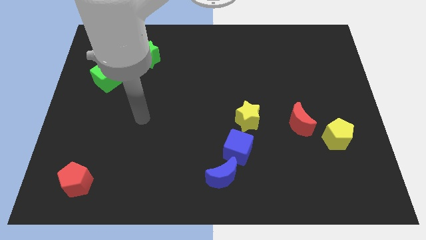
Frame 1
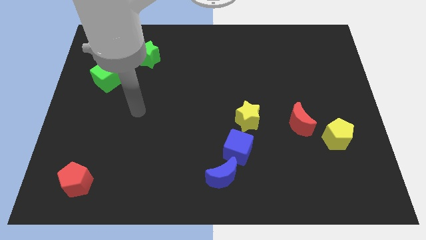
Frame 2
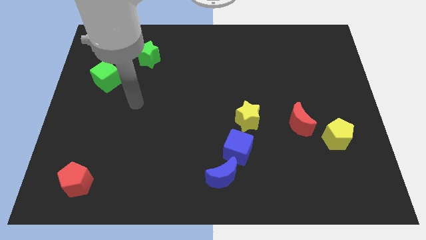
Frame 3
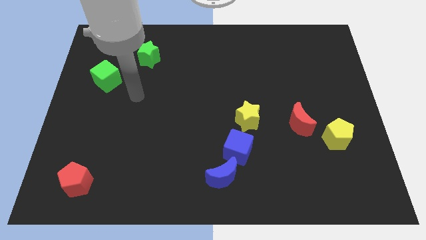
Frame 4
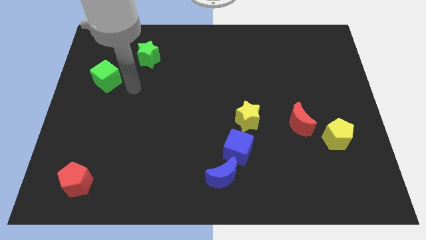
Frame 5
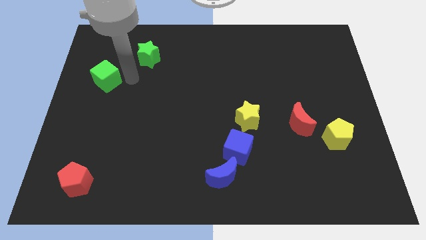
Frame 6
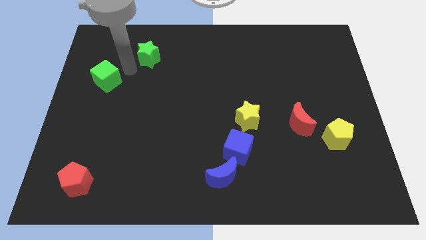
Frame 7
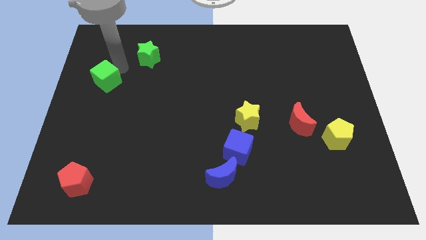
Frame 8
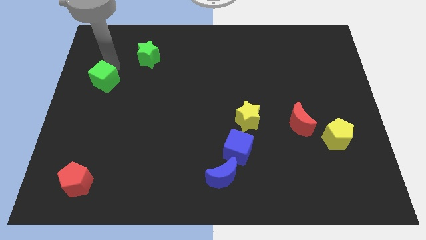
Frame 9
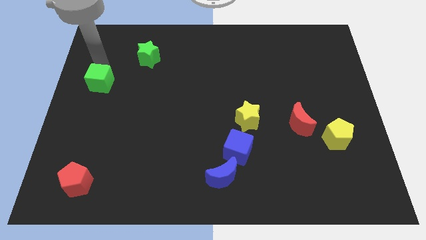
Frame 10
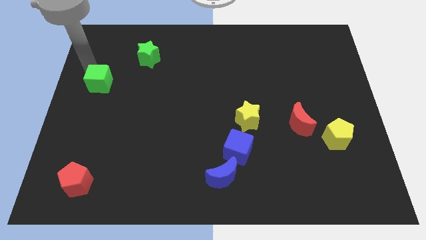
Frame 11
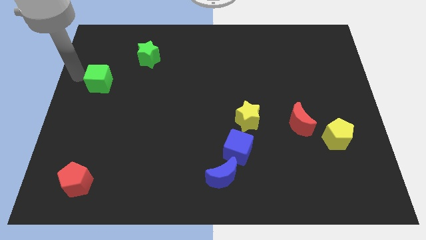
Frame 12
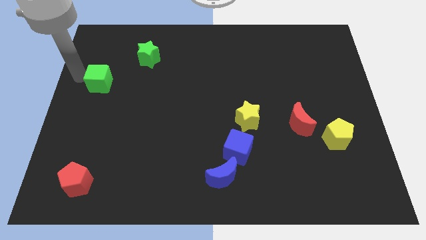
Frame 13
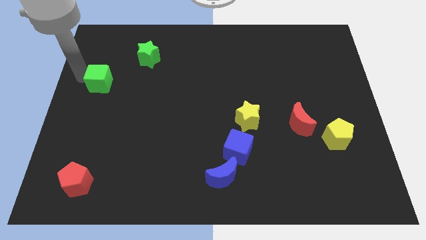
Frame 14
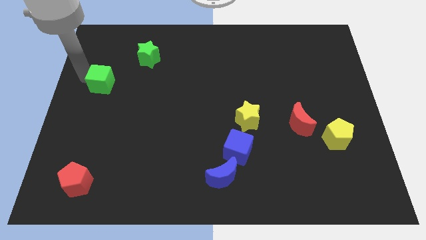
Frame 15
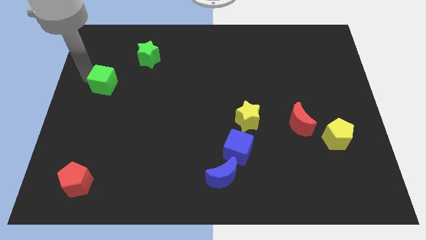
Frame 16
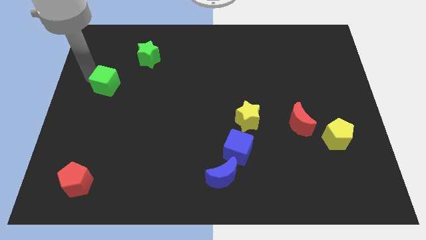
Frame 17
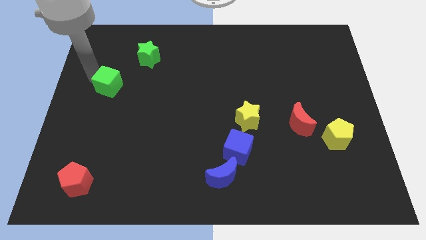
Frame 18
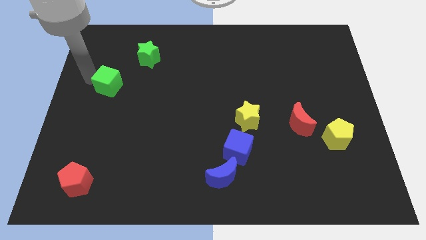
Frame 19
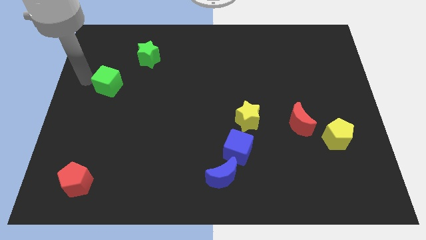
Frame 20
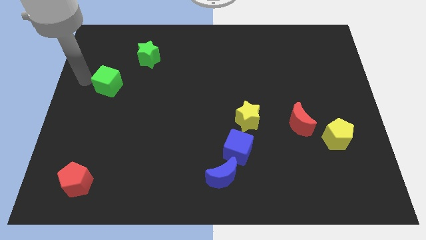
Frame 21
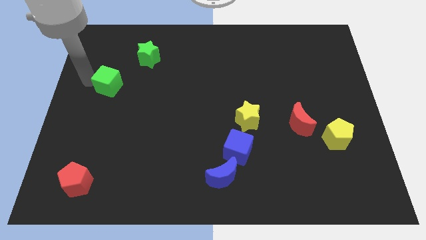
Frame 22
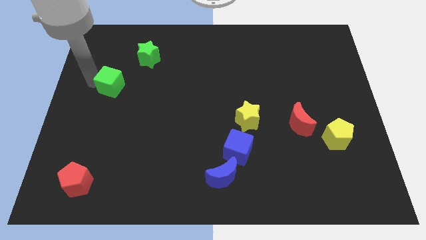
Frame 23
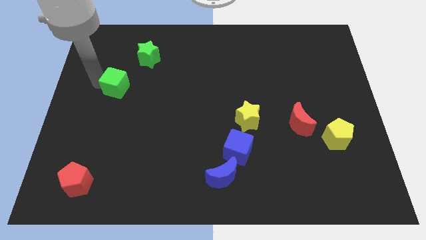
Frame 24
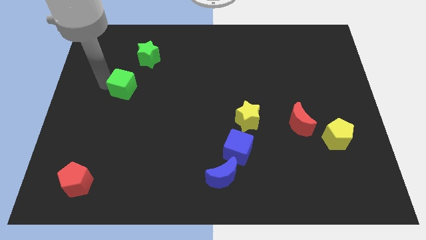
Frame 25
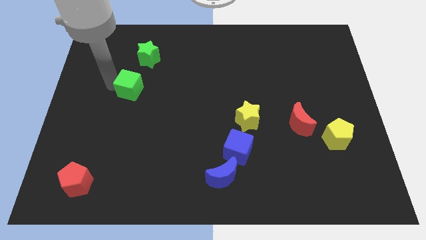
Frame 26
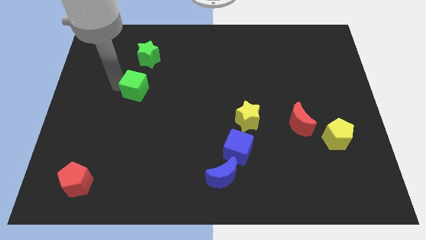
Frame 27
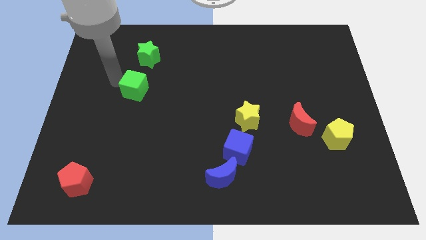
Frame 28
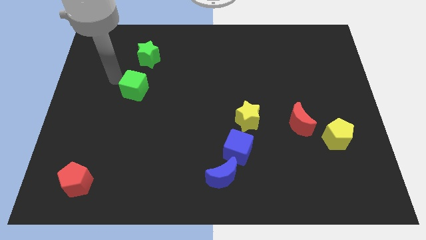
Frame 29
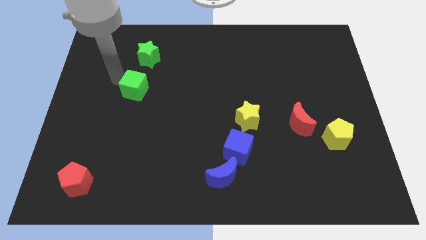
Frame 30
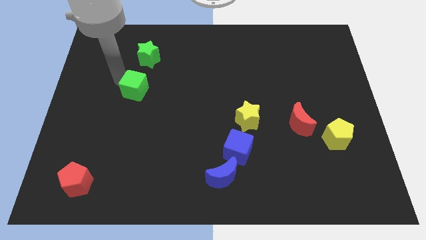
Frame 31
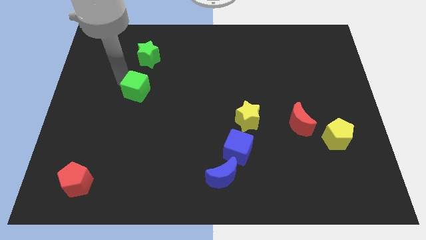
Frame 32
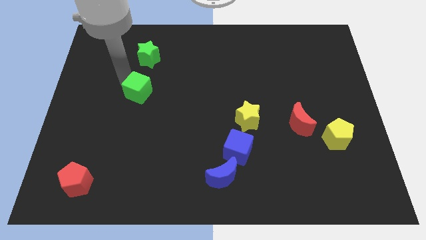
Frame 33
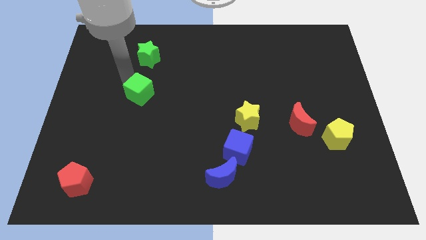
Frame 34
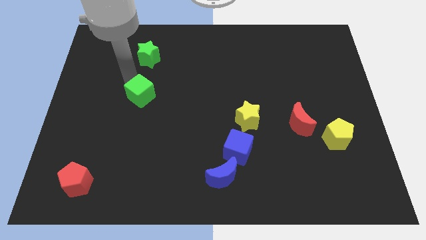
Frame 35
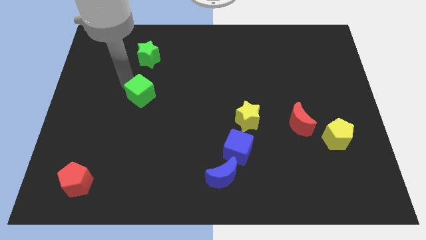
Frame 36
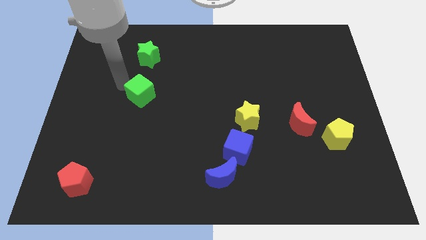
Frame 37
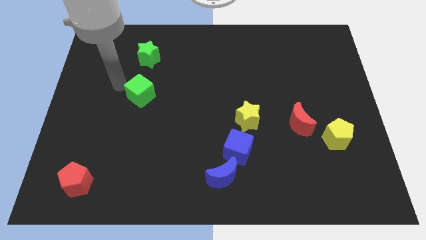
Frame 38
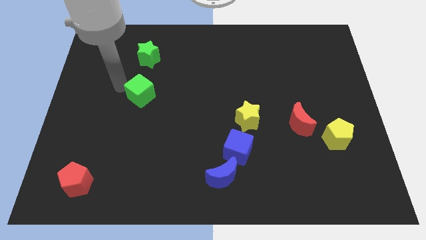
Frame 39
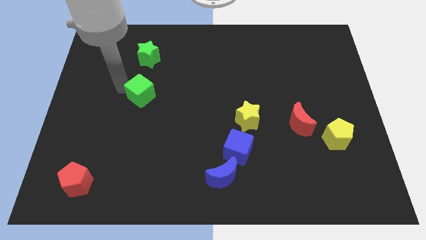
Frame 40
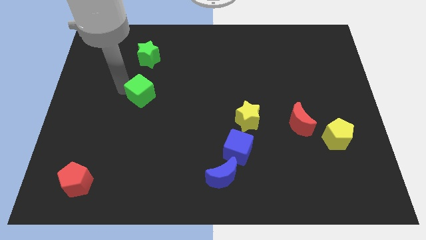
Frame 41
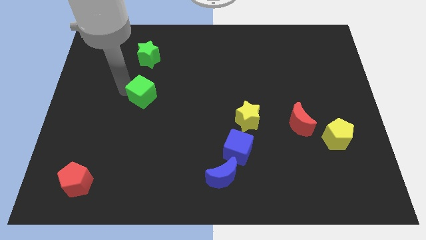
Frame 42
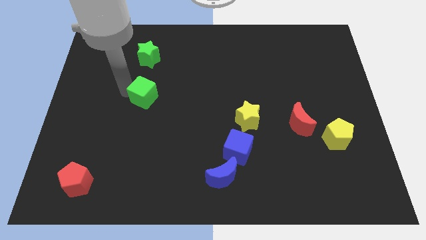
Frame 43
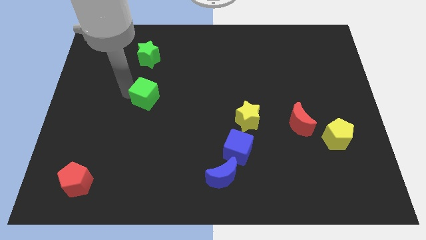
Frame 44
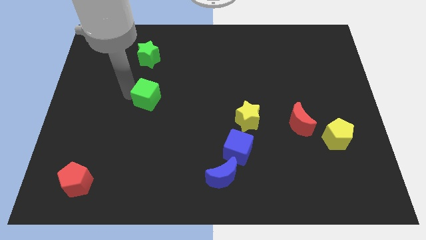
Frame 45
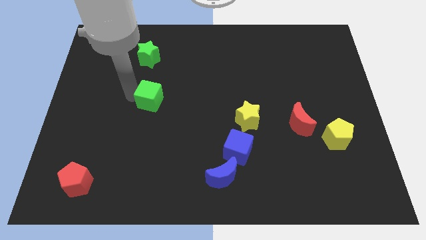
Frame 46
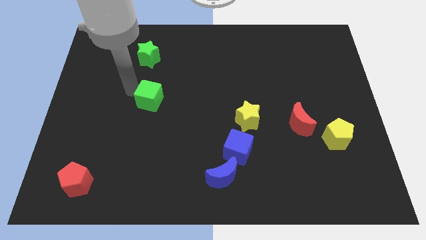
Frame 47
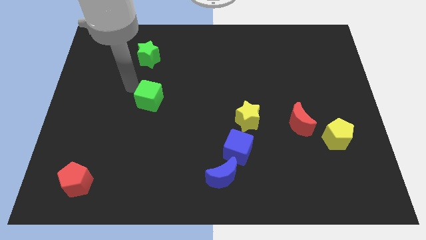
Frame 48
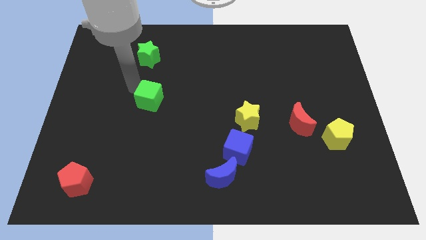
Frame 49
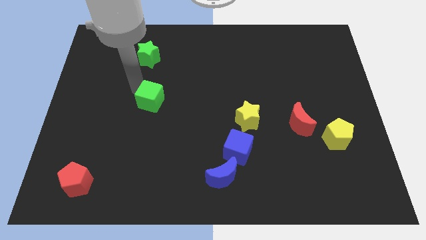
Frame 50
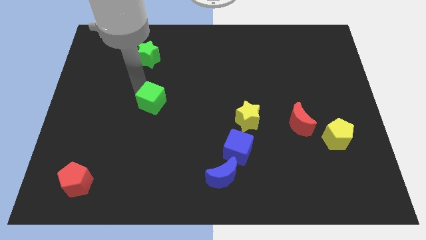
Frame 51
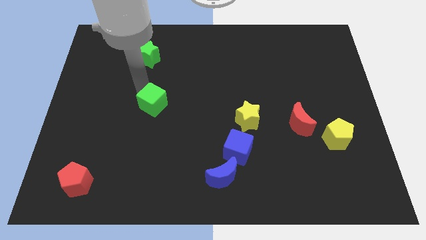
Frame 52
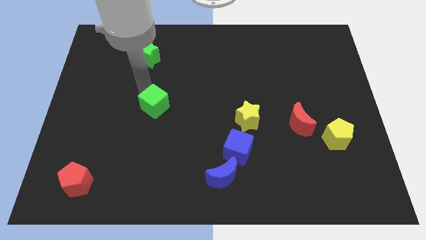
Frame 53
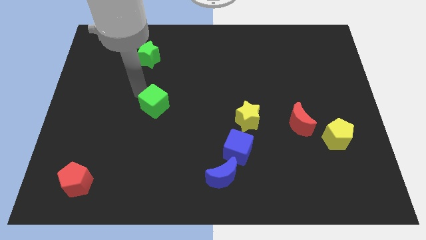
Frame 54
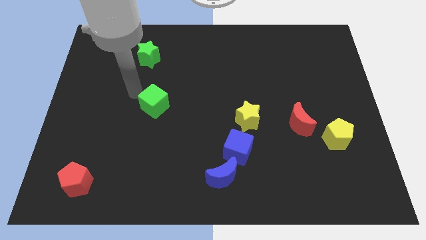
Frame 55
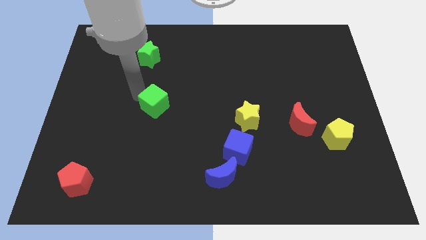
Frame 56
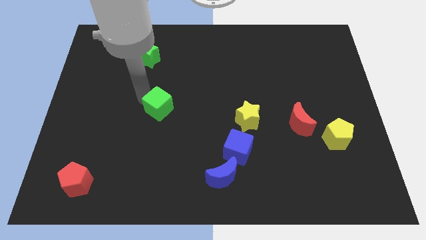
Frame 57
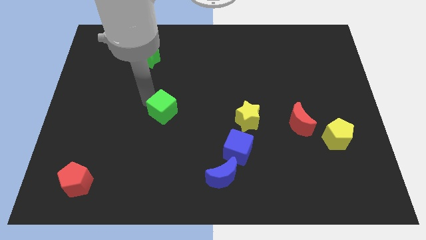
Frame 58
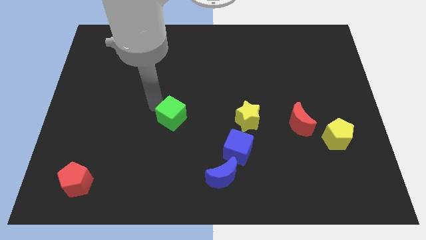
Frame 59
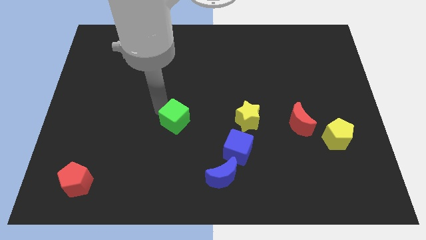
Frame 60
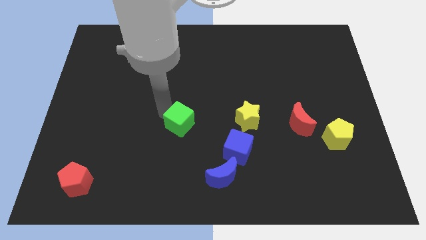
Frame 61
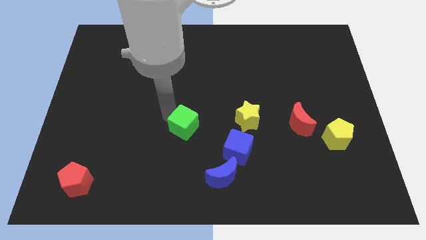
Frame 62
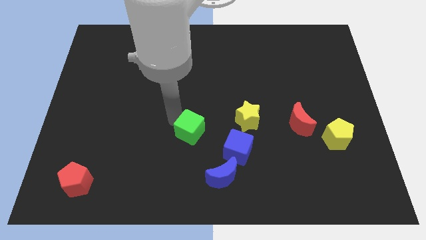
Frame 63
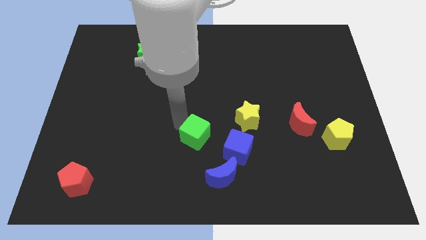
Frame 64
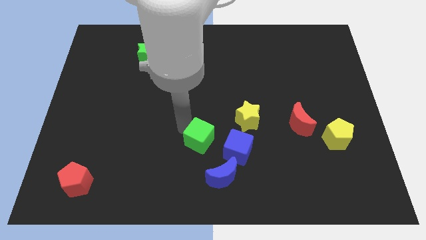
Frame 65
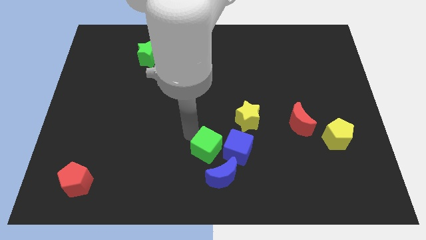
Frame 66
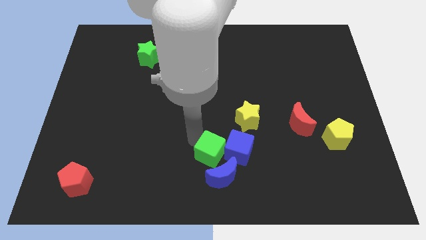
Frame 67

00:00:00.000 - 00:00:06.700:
push the green cube towards the blue cube

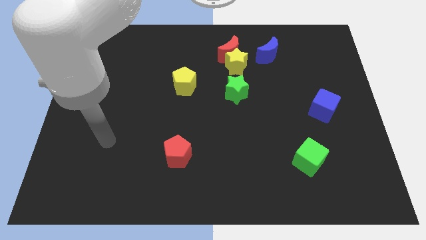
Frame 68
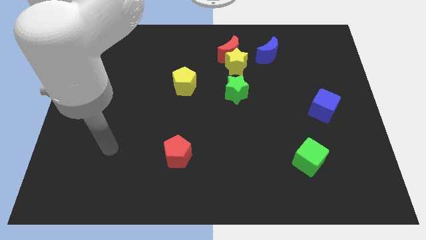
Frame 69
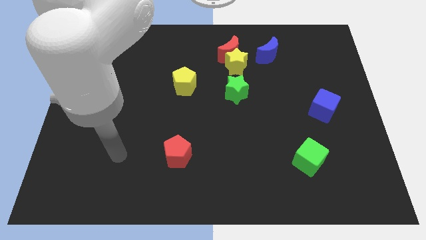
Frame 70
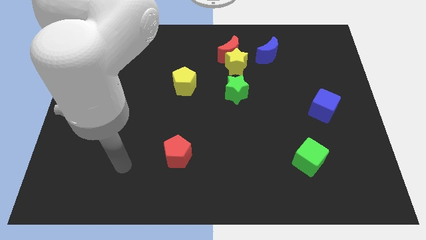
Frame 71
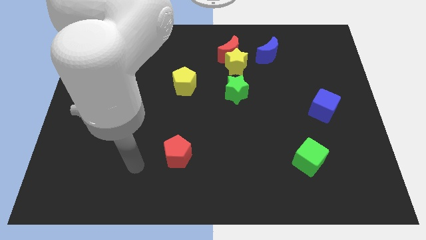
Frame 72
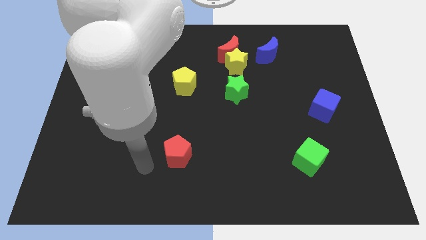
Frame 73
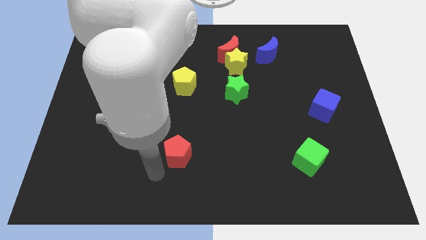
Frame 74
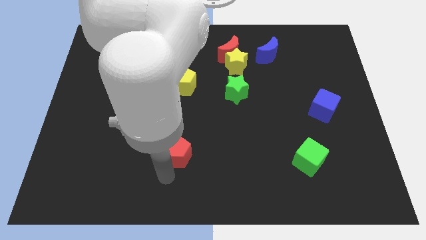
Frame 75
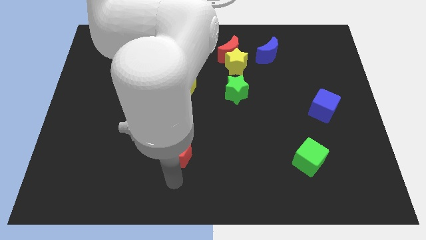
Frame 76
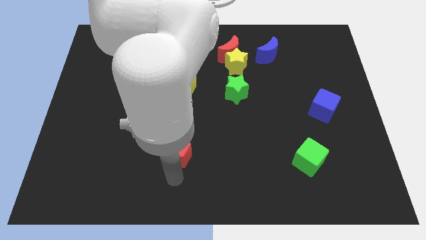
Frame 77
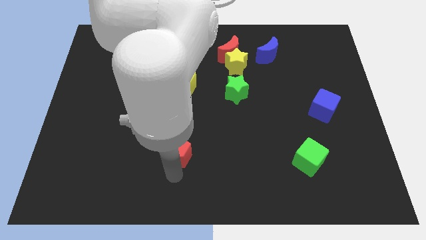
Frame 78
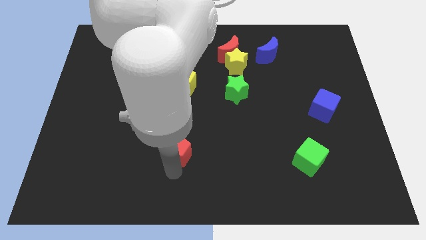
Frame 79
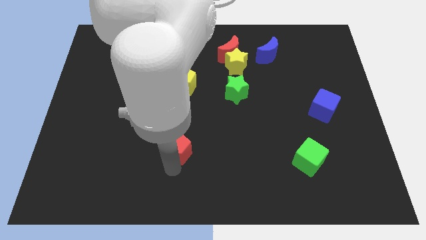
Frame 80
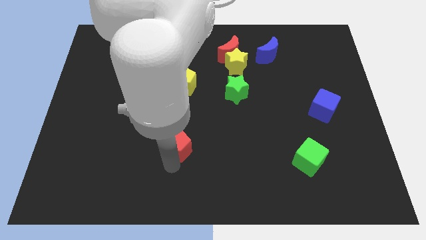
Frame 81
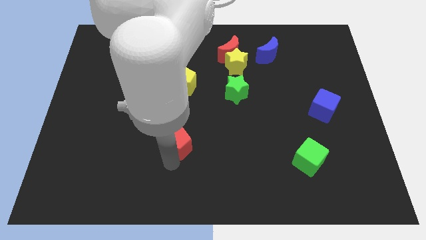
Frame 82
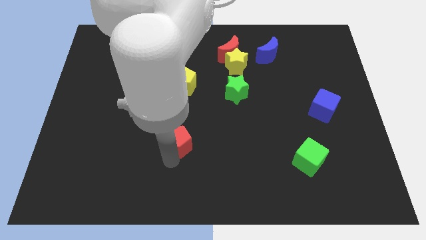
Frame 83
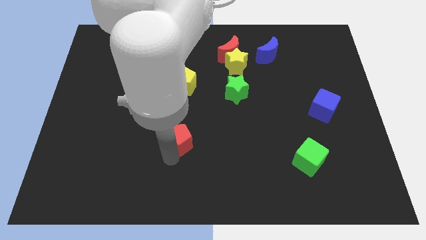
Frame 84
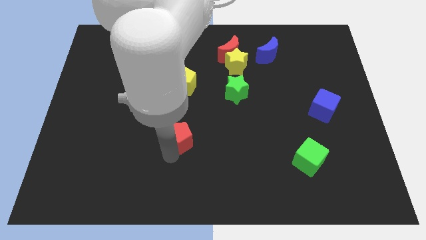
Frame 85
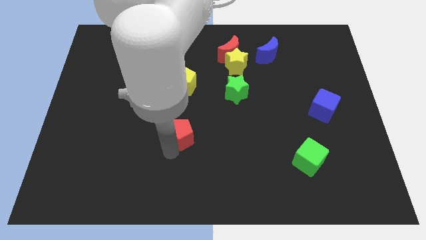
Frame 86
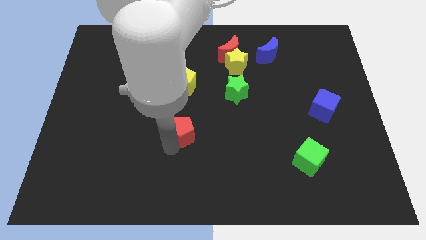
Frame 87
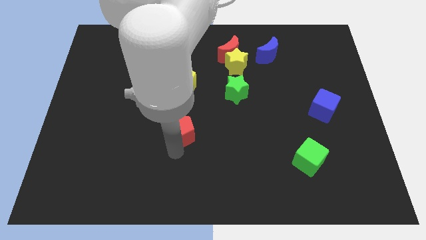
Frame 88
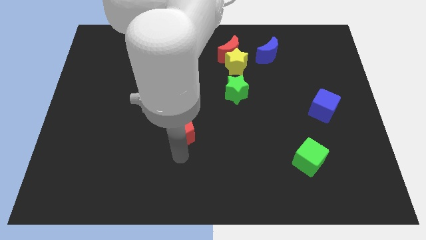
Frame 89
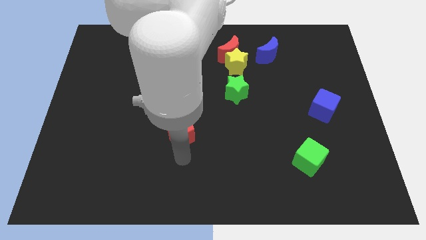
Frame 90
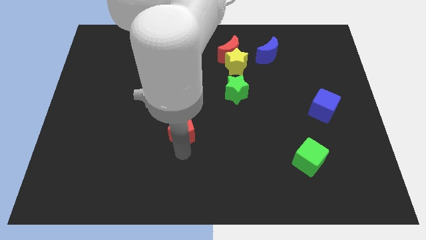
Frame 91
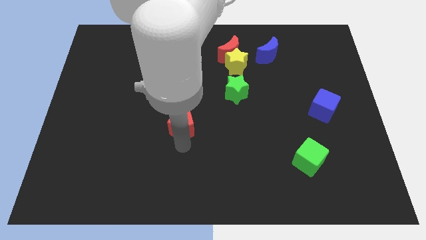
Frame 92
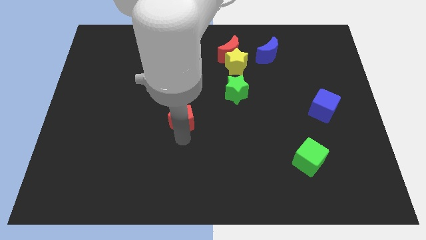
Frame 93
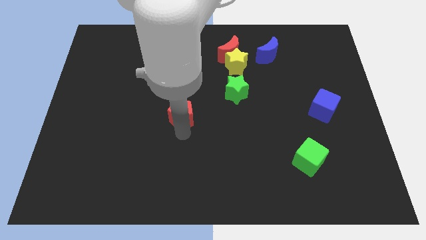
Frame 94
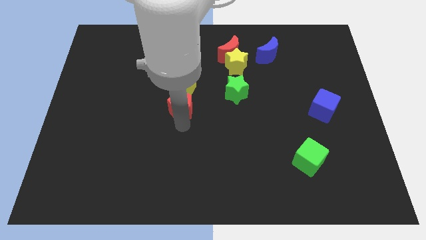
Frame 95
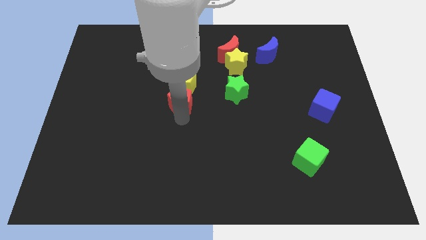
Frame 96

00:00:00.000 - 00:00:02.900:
slide the red pentagon close to the yellow pentagon
